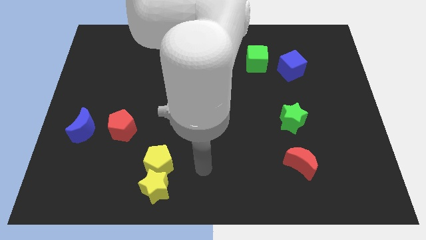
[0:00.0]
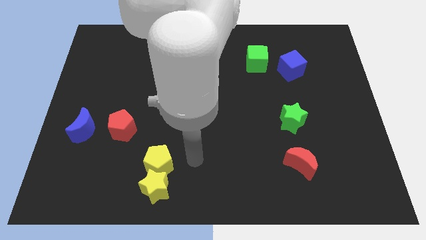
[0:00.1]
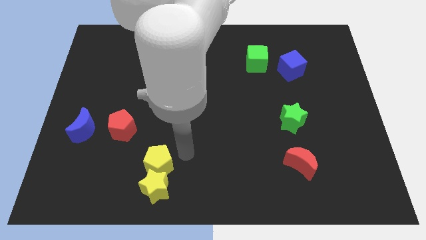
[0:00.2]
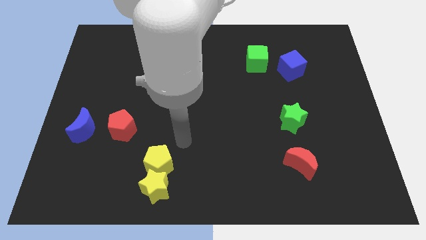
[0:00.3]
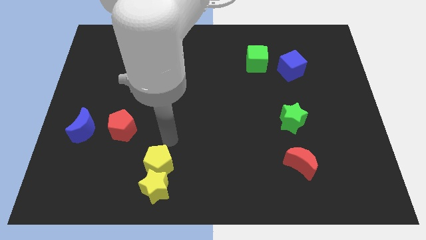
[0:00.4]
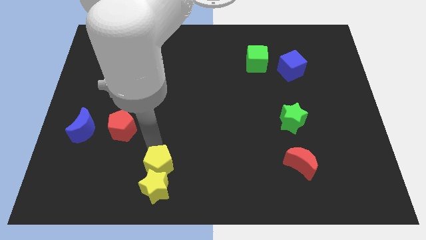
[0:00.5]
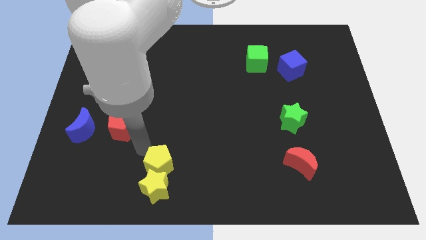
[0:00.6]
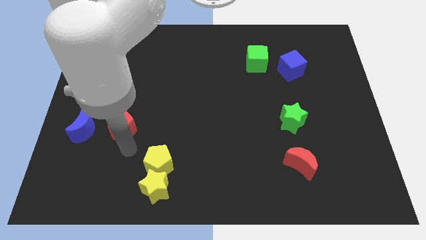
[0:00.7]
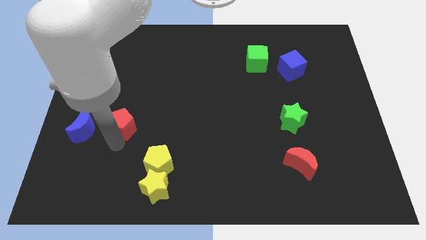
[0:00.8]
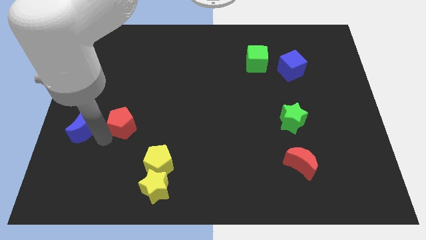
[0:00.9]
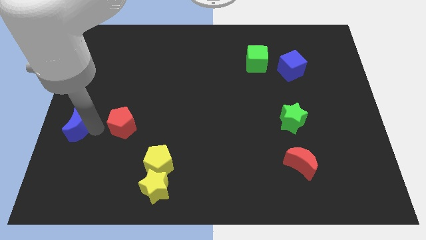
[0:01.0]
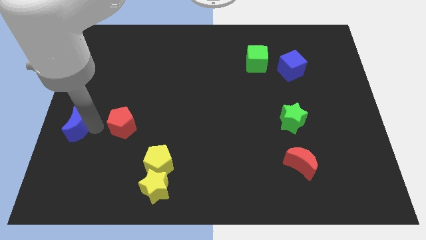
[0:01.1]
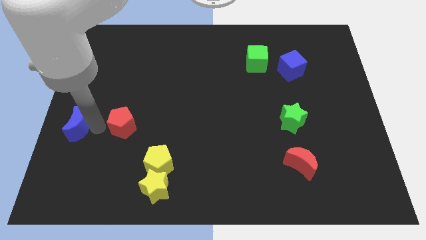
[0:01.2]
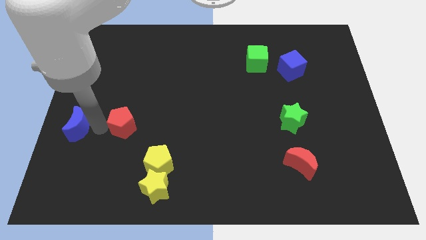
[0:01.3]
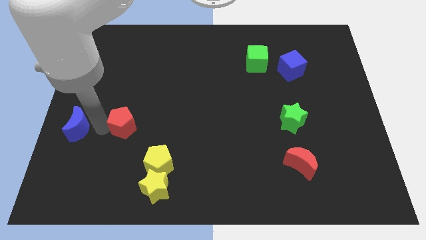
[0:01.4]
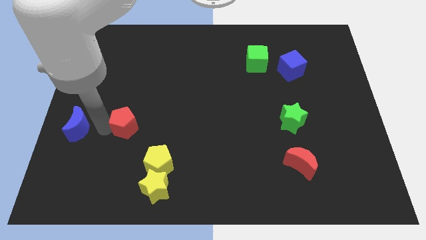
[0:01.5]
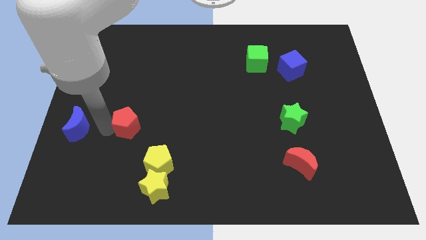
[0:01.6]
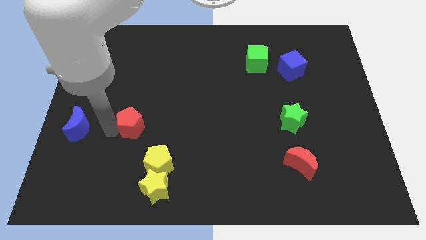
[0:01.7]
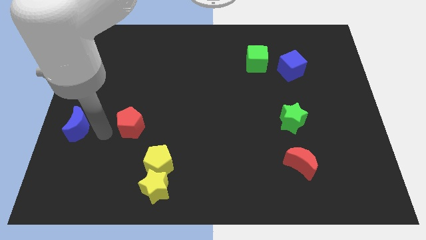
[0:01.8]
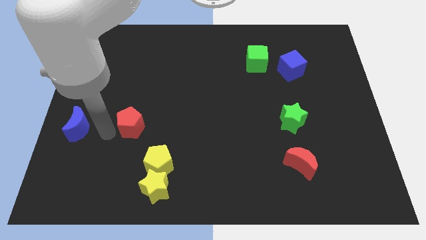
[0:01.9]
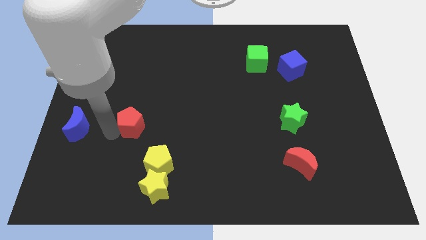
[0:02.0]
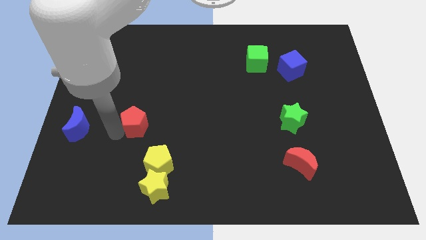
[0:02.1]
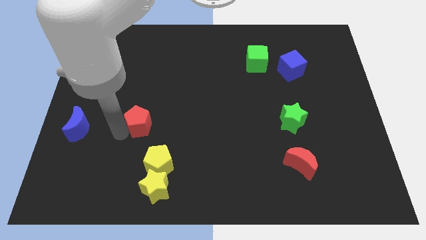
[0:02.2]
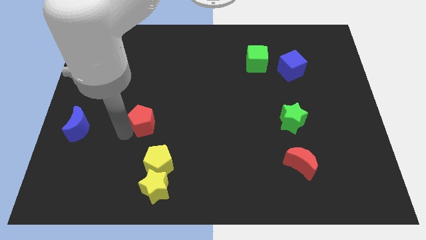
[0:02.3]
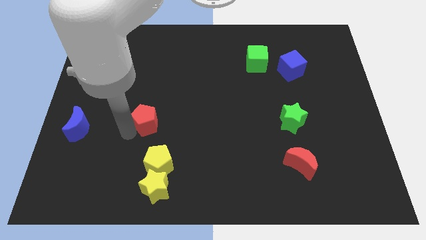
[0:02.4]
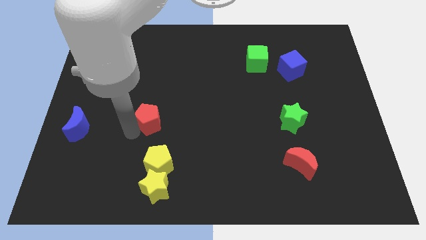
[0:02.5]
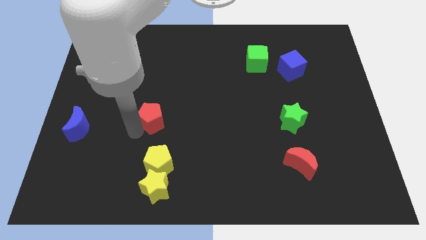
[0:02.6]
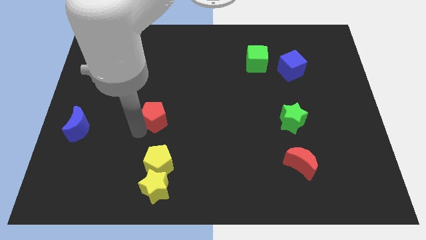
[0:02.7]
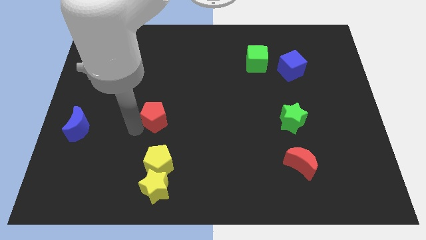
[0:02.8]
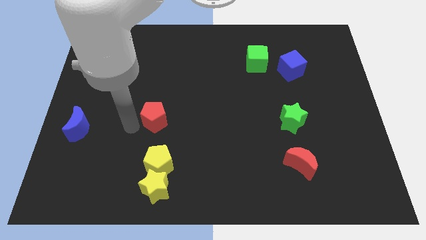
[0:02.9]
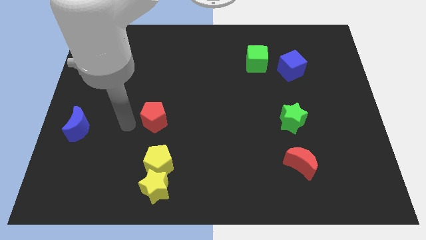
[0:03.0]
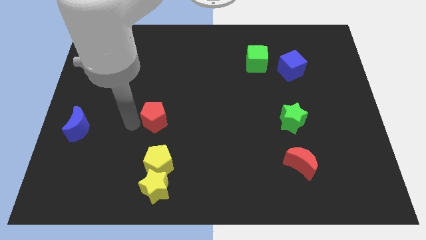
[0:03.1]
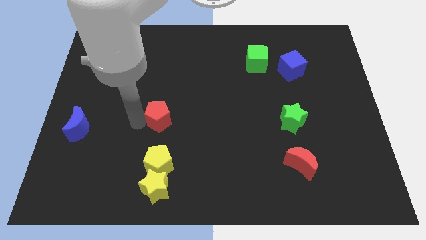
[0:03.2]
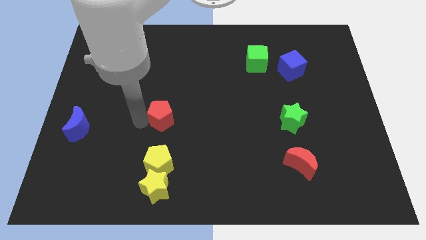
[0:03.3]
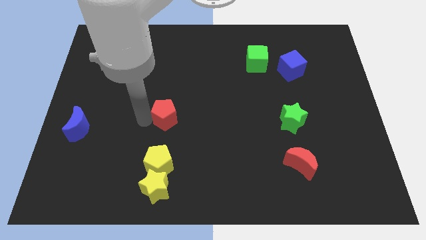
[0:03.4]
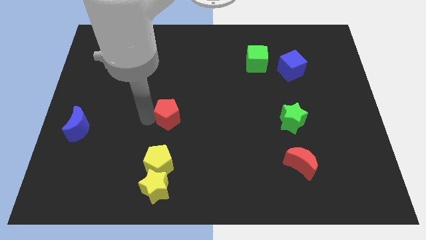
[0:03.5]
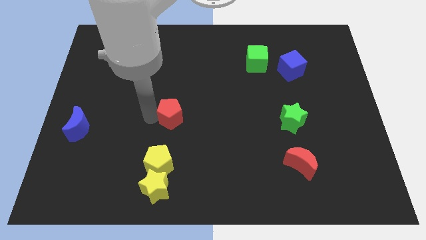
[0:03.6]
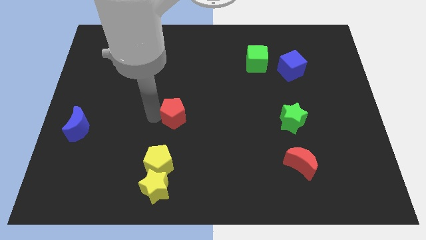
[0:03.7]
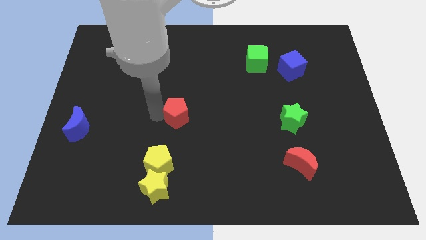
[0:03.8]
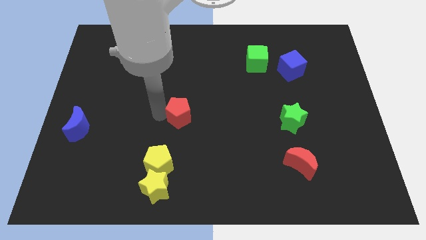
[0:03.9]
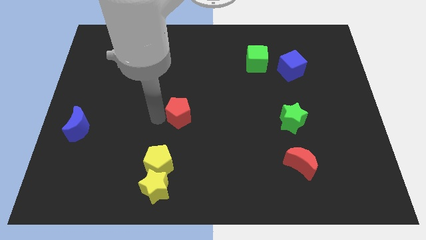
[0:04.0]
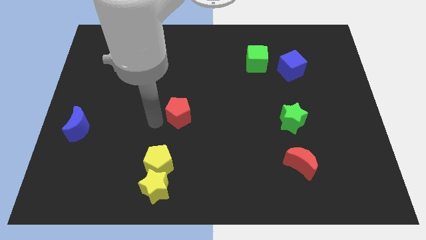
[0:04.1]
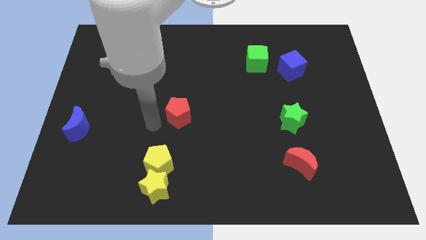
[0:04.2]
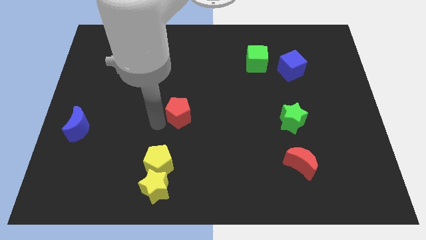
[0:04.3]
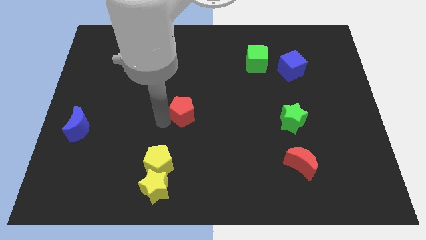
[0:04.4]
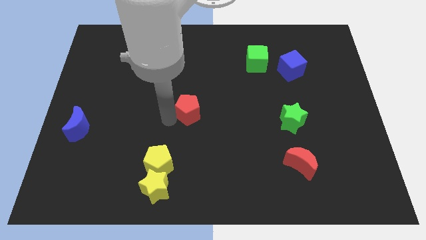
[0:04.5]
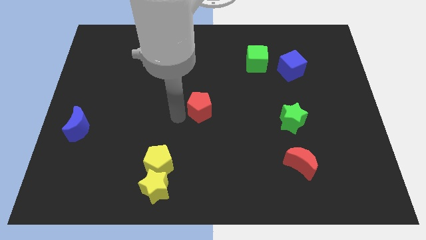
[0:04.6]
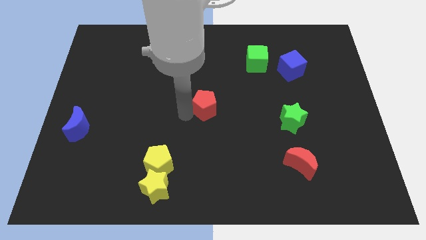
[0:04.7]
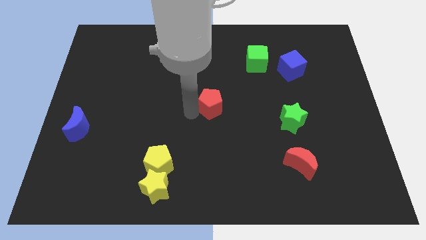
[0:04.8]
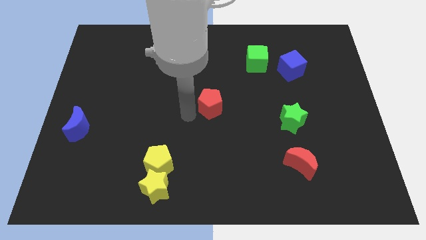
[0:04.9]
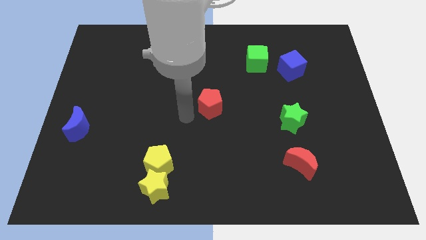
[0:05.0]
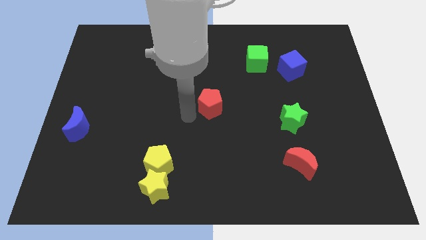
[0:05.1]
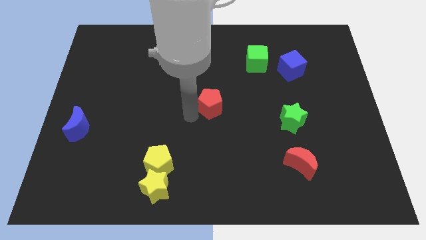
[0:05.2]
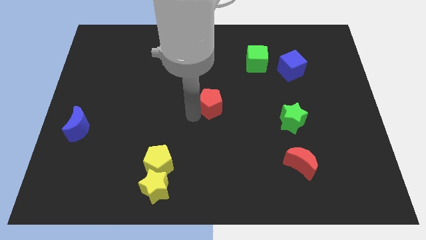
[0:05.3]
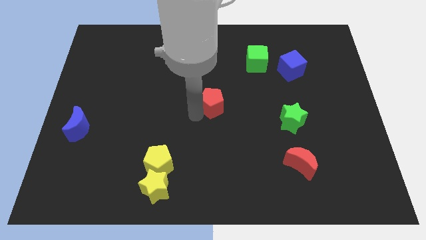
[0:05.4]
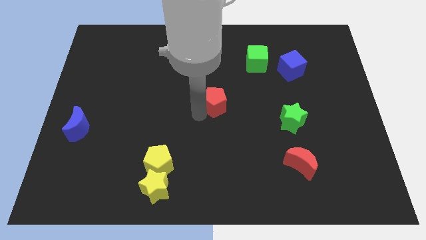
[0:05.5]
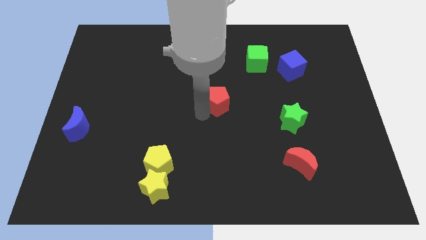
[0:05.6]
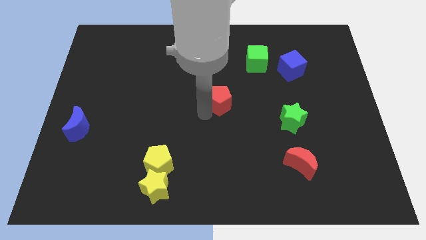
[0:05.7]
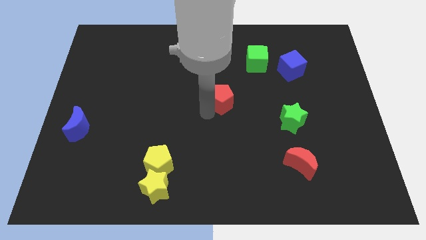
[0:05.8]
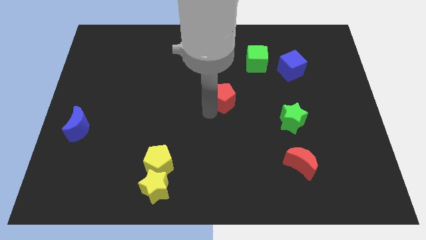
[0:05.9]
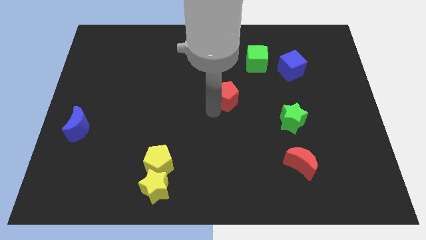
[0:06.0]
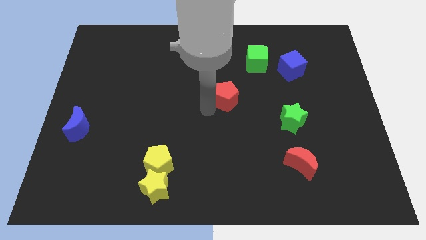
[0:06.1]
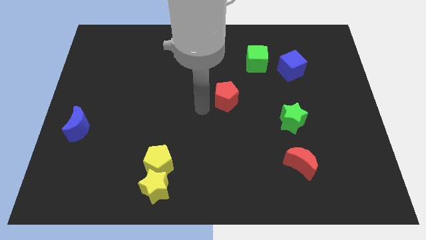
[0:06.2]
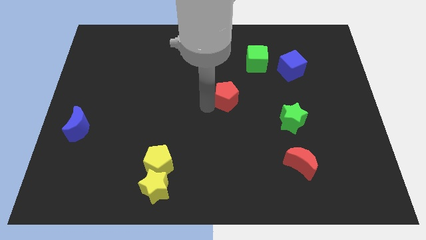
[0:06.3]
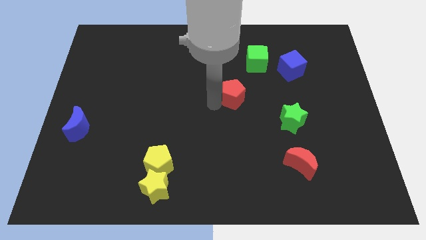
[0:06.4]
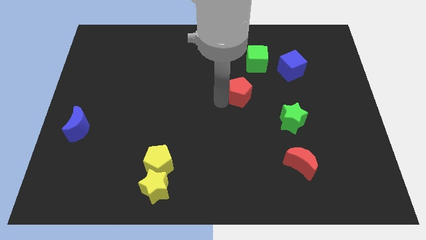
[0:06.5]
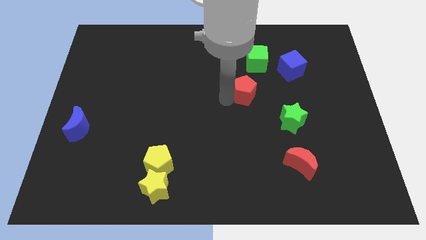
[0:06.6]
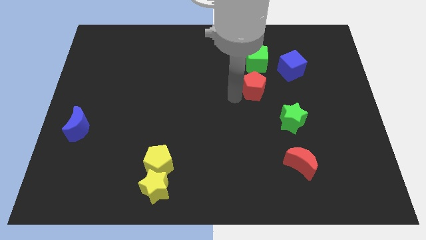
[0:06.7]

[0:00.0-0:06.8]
slide the red pentagon to the bottom left of the blue cube
